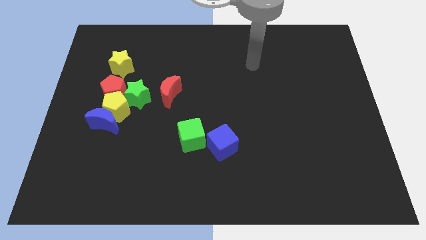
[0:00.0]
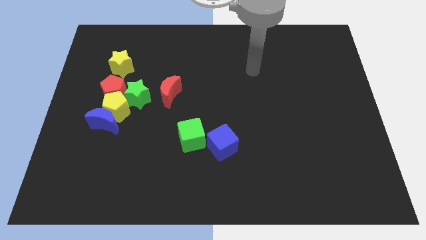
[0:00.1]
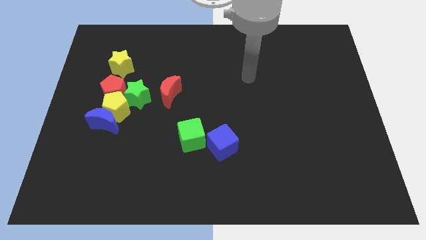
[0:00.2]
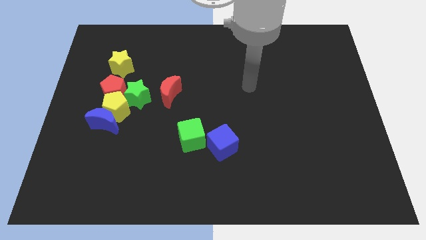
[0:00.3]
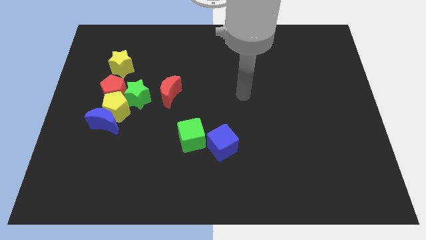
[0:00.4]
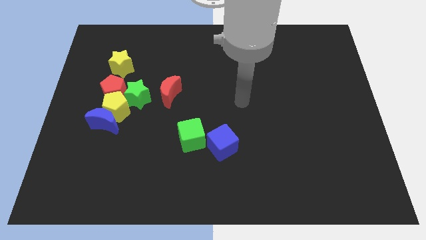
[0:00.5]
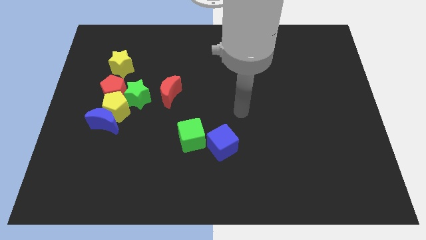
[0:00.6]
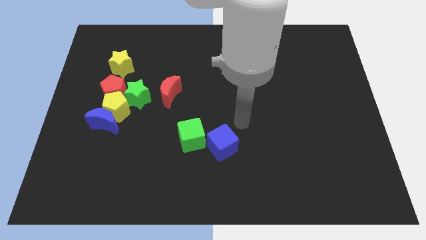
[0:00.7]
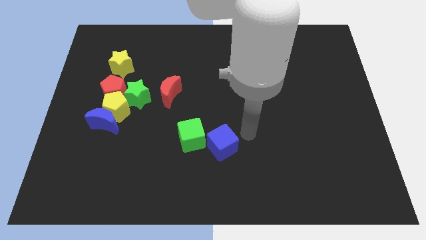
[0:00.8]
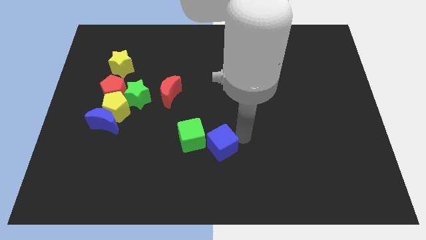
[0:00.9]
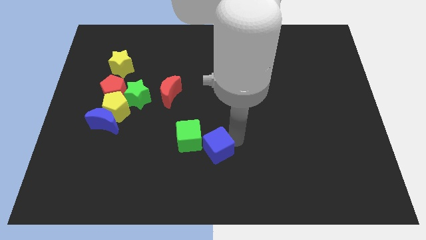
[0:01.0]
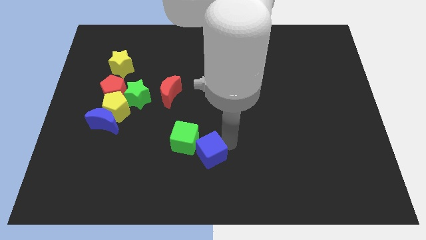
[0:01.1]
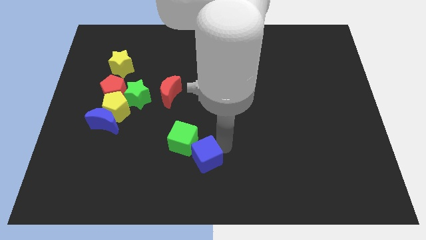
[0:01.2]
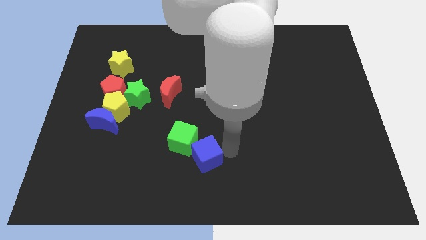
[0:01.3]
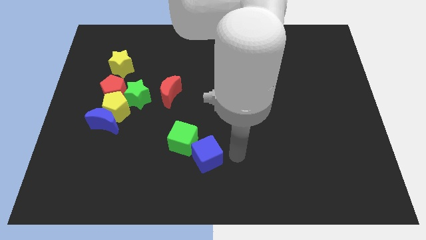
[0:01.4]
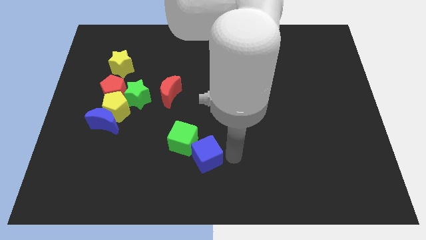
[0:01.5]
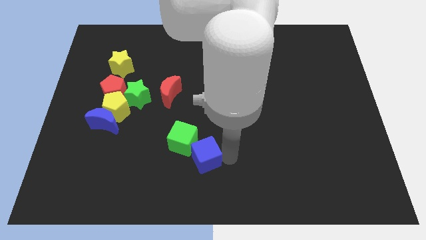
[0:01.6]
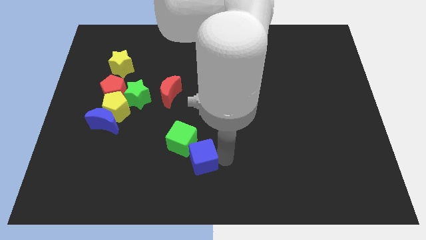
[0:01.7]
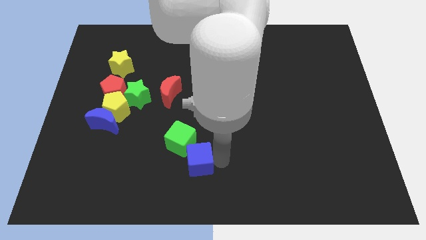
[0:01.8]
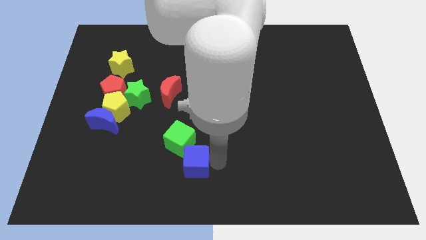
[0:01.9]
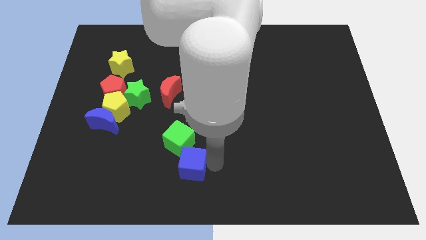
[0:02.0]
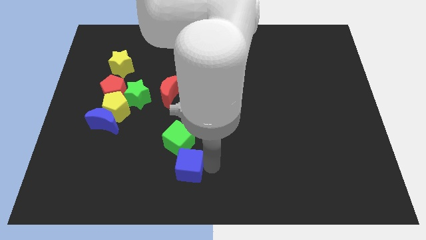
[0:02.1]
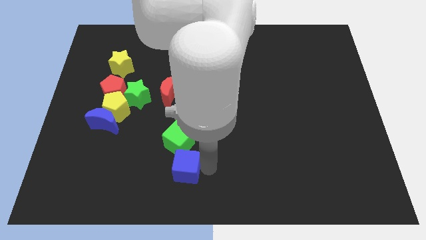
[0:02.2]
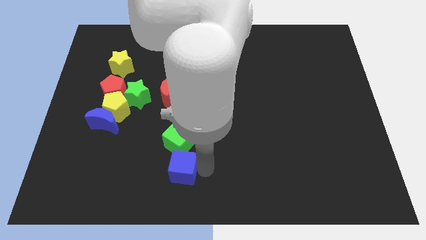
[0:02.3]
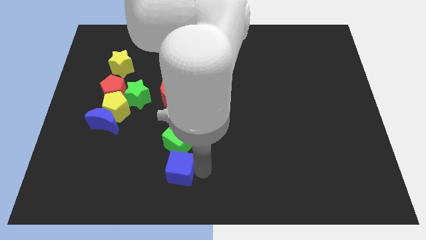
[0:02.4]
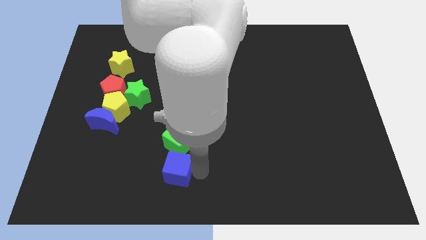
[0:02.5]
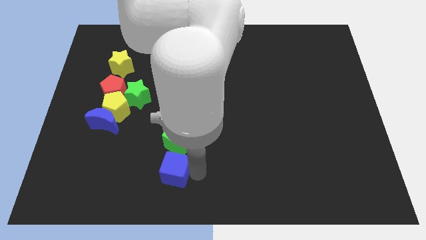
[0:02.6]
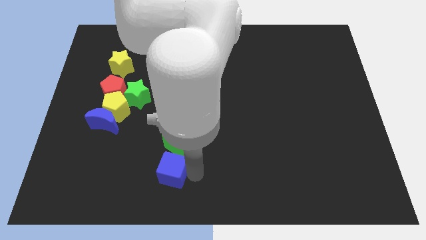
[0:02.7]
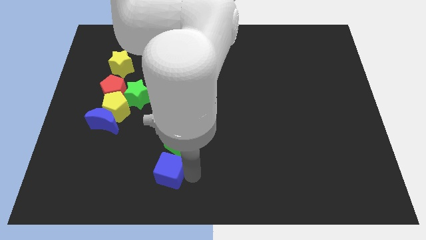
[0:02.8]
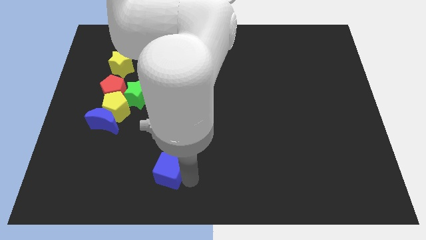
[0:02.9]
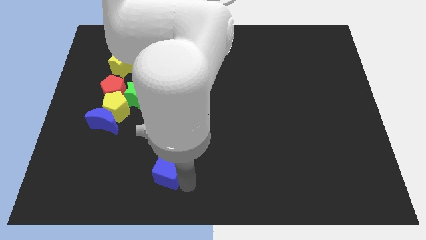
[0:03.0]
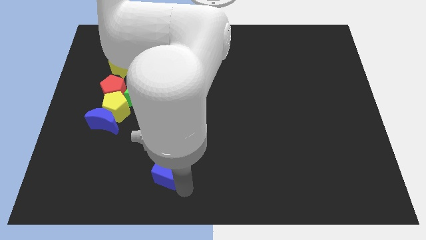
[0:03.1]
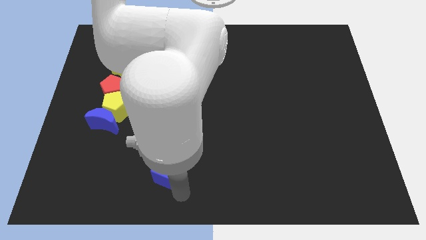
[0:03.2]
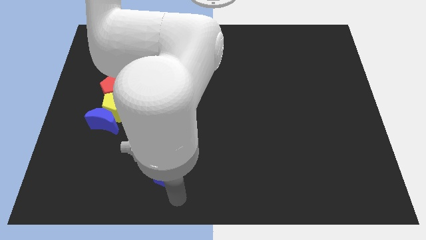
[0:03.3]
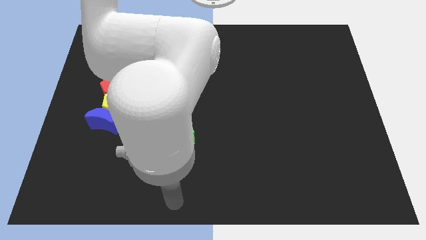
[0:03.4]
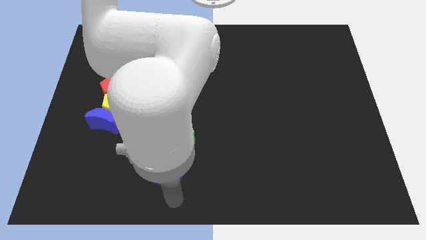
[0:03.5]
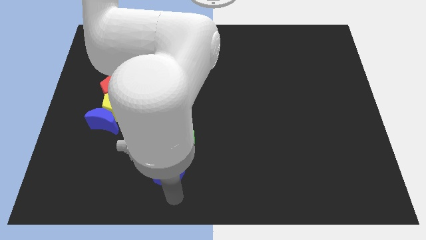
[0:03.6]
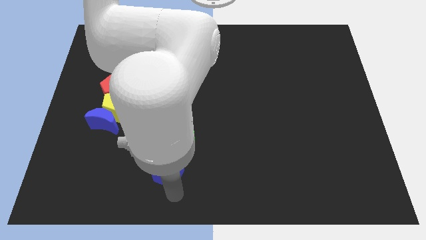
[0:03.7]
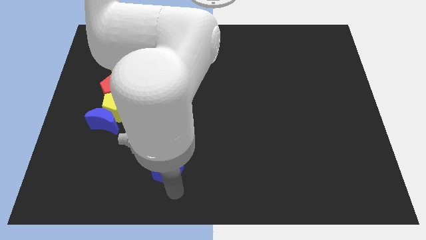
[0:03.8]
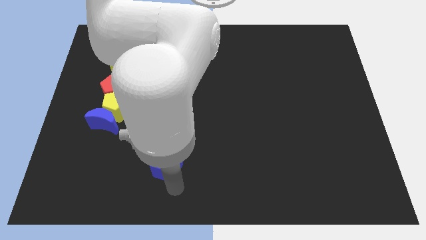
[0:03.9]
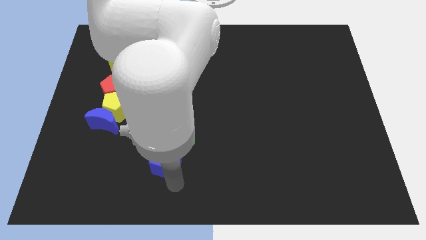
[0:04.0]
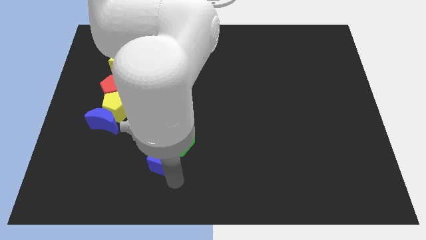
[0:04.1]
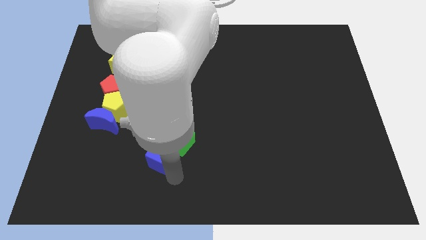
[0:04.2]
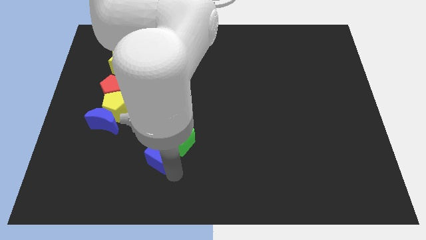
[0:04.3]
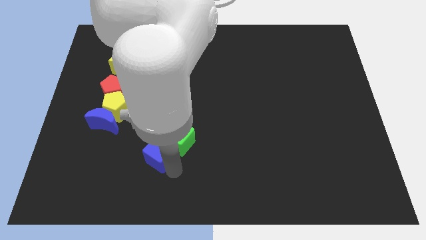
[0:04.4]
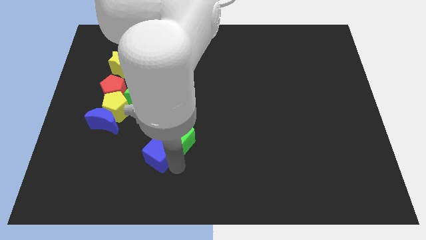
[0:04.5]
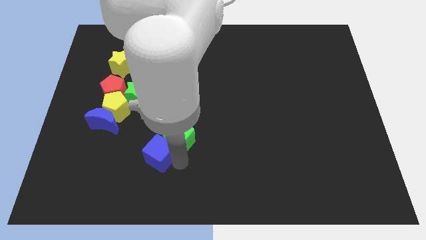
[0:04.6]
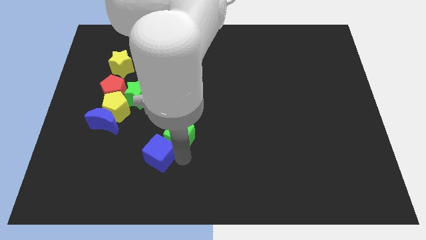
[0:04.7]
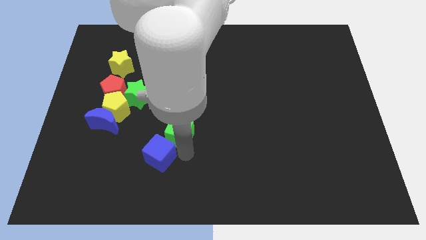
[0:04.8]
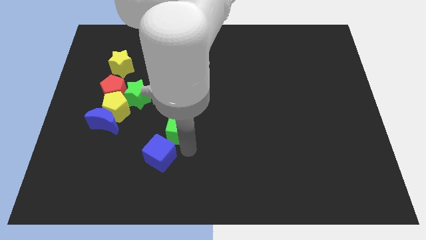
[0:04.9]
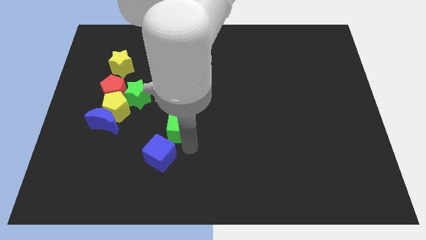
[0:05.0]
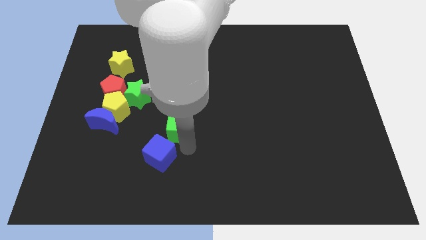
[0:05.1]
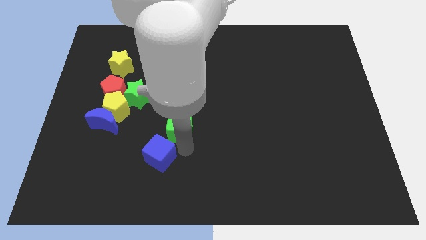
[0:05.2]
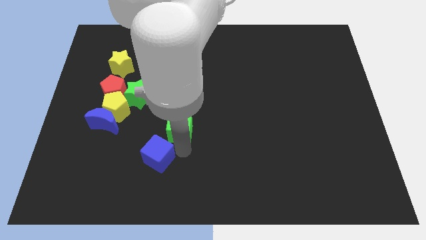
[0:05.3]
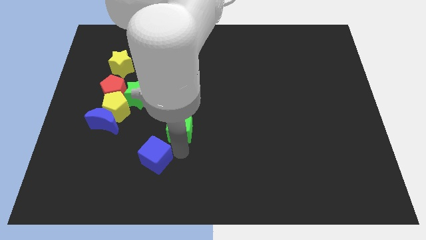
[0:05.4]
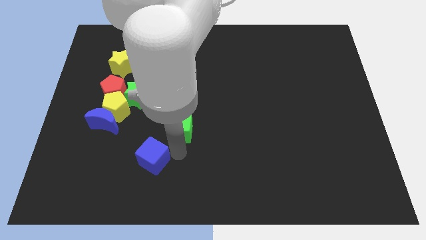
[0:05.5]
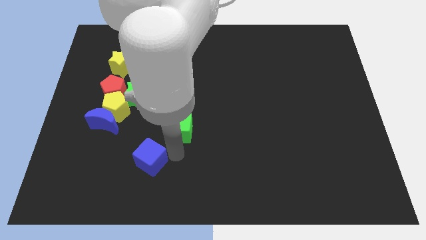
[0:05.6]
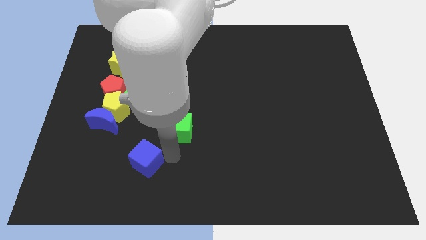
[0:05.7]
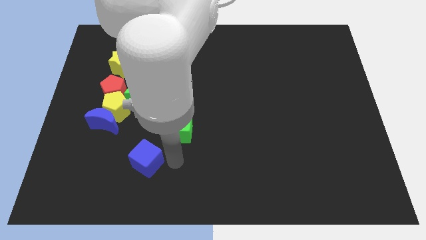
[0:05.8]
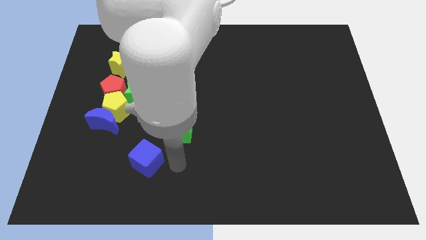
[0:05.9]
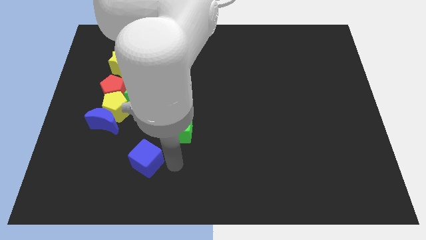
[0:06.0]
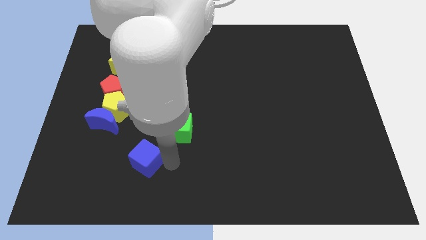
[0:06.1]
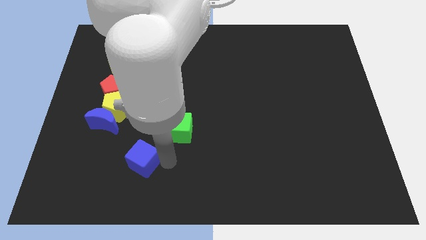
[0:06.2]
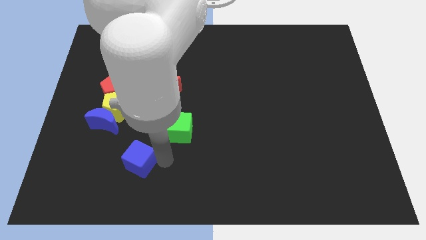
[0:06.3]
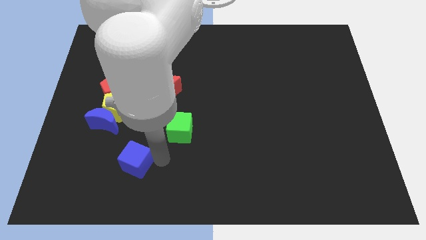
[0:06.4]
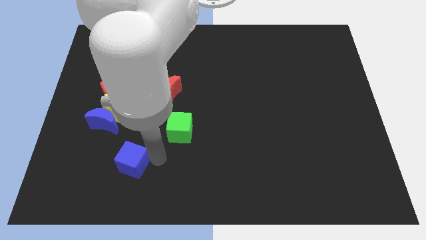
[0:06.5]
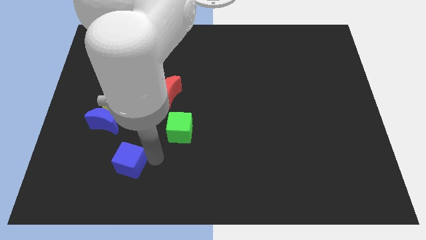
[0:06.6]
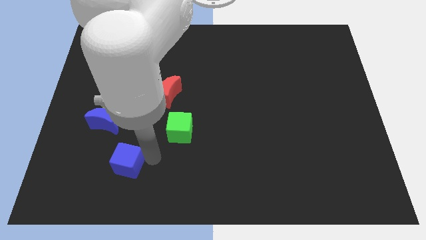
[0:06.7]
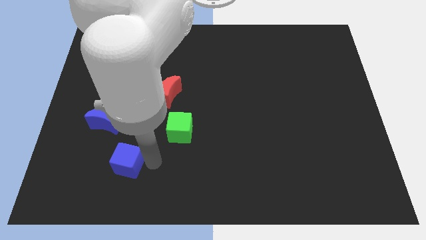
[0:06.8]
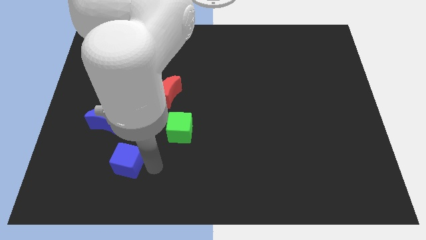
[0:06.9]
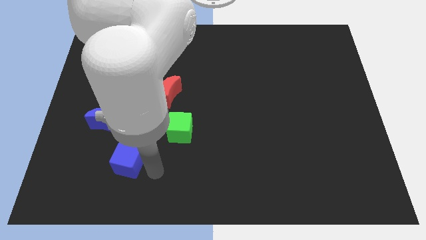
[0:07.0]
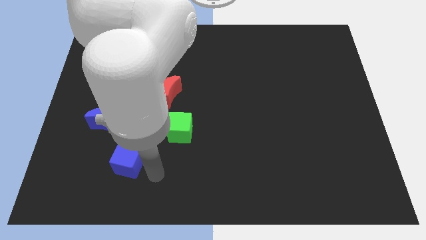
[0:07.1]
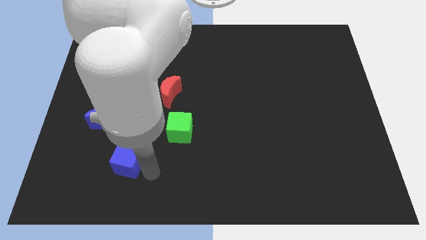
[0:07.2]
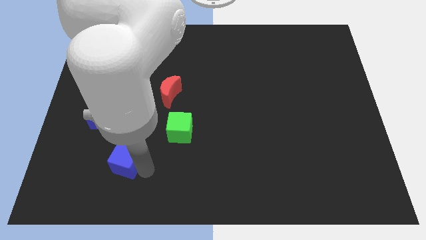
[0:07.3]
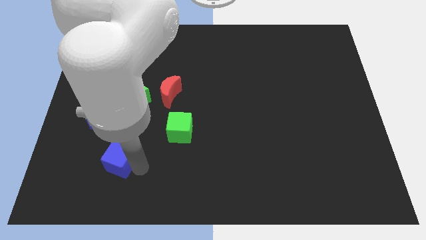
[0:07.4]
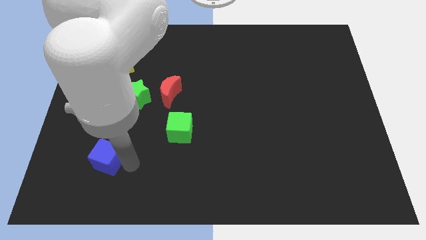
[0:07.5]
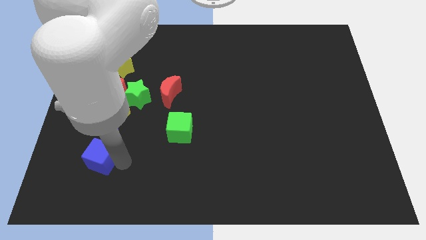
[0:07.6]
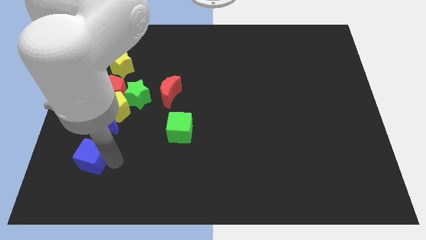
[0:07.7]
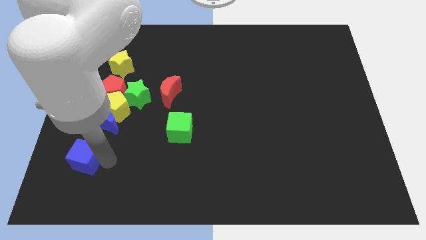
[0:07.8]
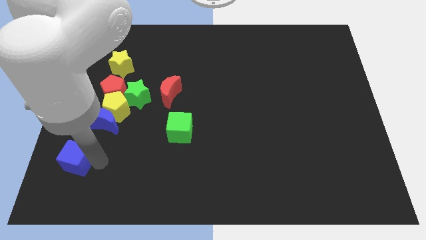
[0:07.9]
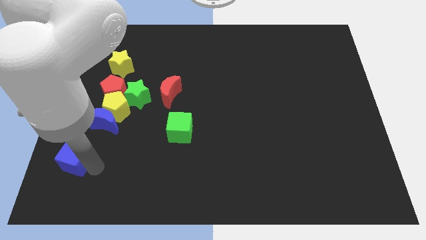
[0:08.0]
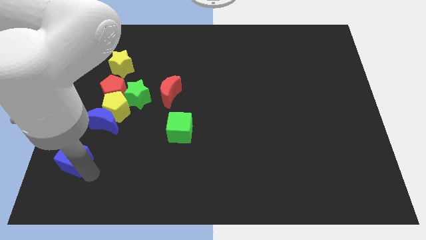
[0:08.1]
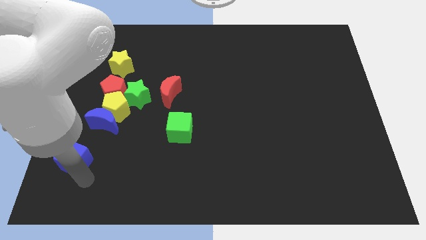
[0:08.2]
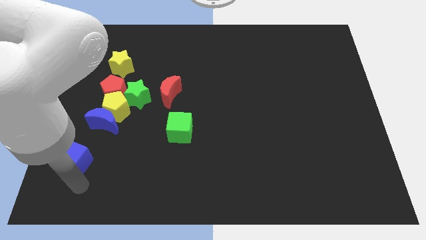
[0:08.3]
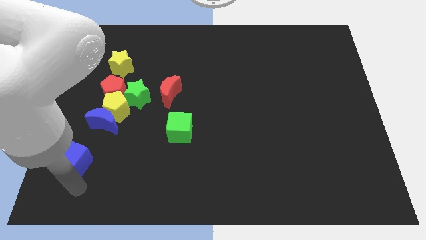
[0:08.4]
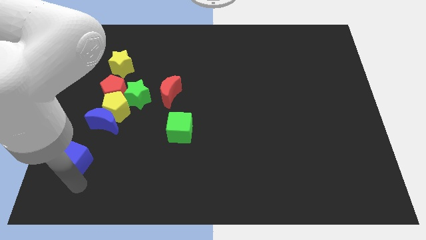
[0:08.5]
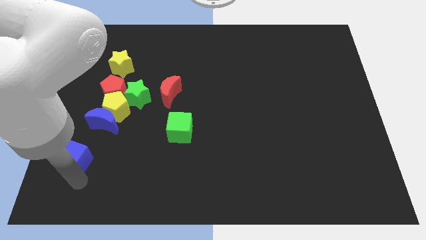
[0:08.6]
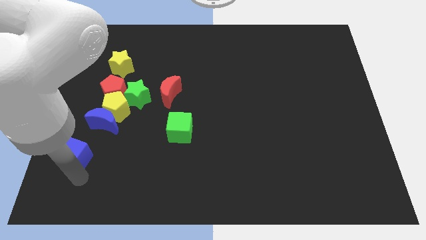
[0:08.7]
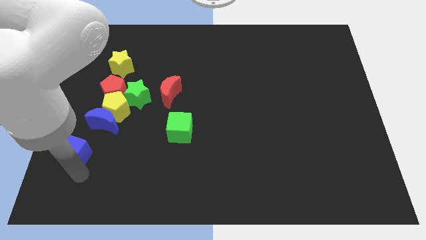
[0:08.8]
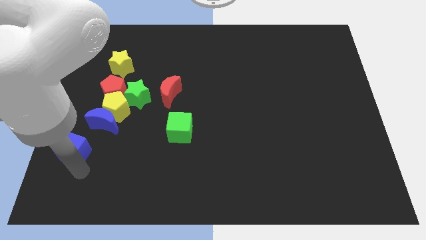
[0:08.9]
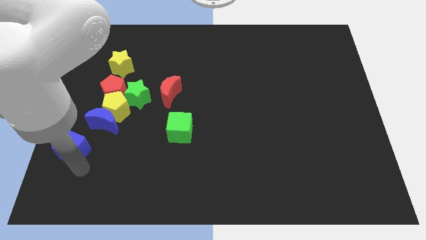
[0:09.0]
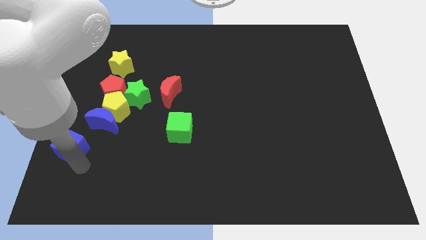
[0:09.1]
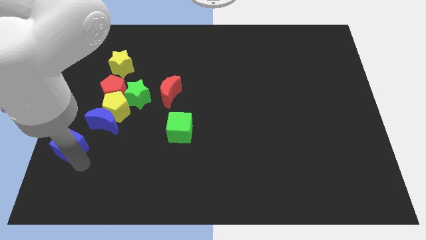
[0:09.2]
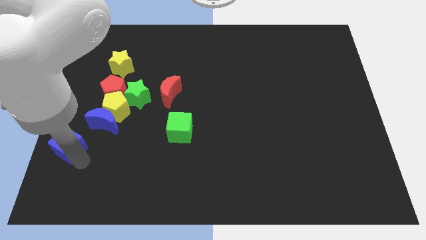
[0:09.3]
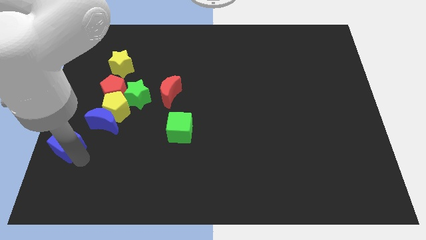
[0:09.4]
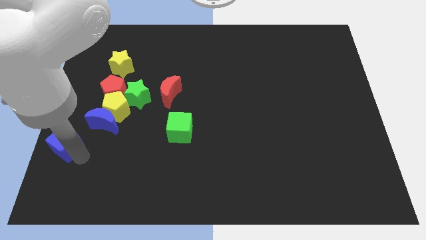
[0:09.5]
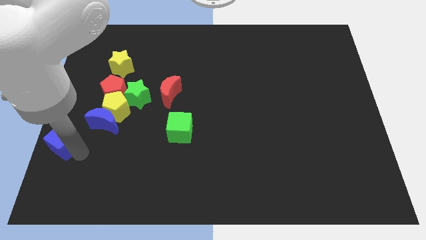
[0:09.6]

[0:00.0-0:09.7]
move the blue cube to the left side
